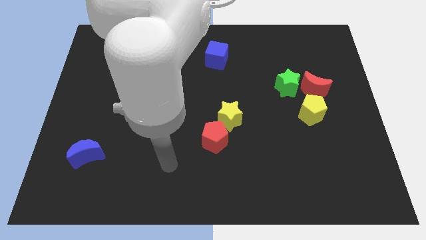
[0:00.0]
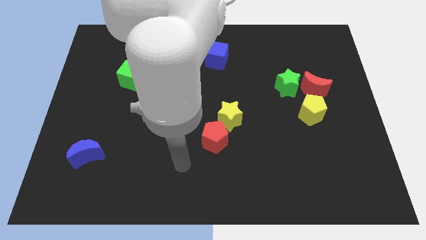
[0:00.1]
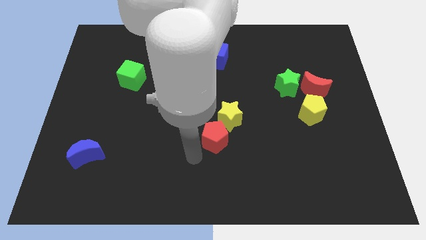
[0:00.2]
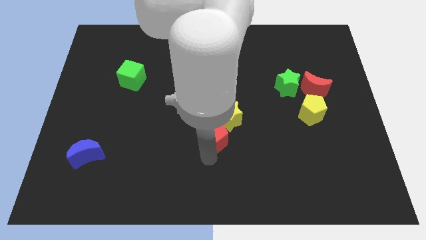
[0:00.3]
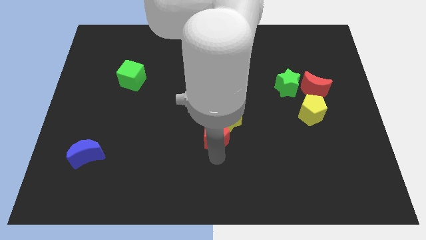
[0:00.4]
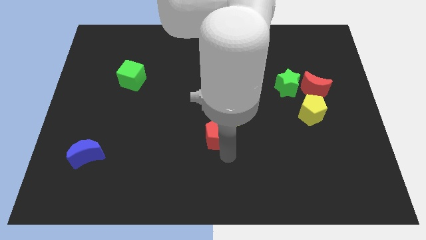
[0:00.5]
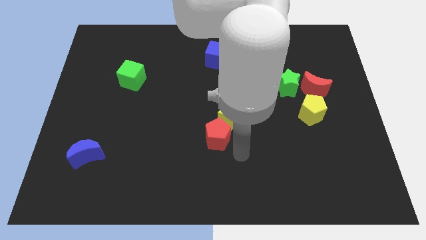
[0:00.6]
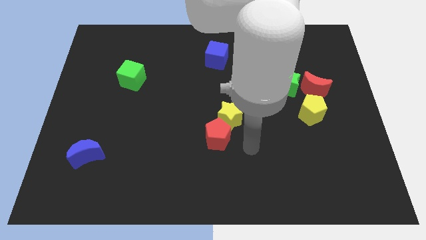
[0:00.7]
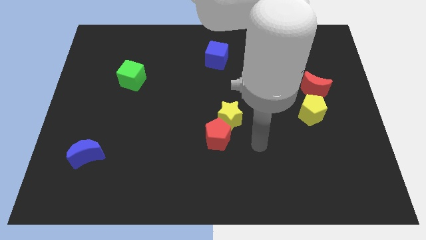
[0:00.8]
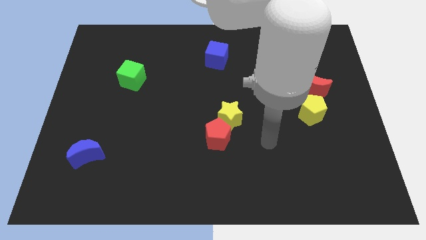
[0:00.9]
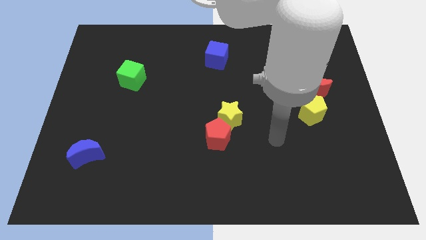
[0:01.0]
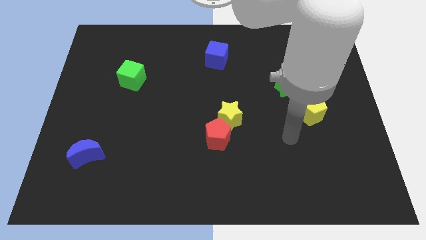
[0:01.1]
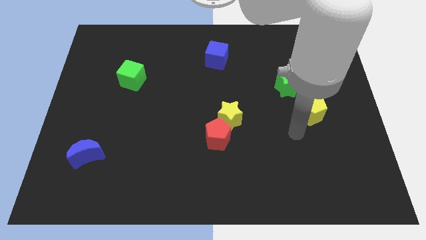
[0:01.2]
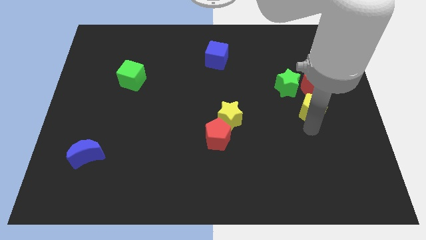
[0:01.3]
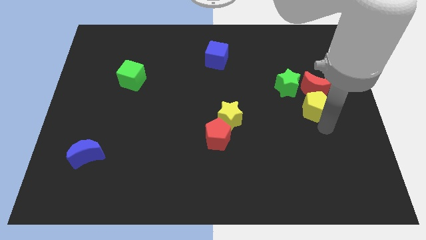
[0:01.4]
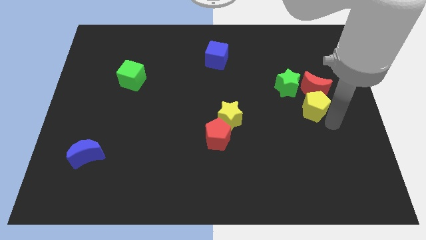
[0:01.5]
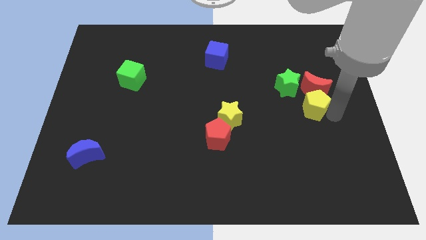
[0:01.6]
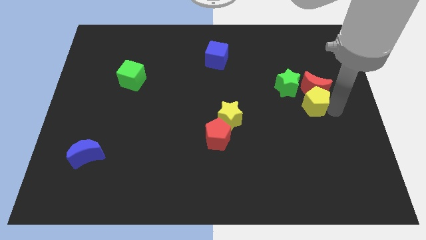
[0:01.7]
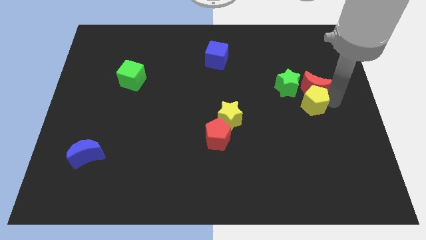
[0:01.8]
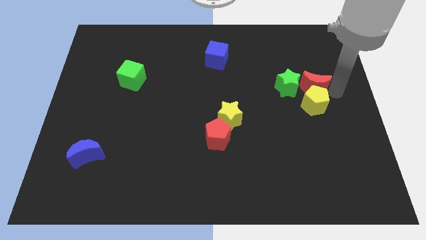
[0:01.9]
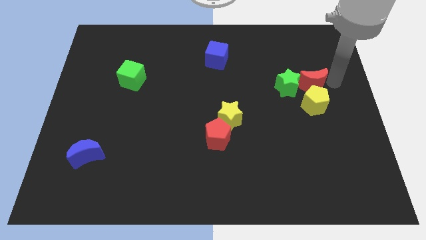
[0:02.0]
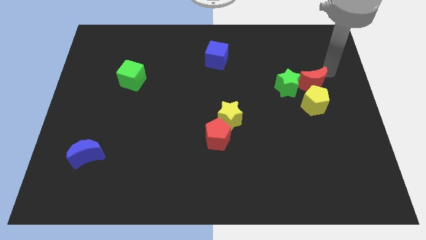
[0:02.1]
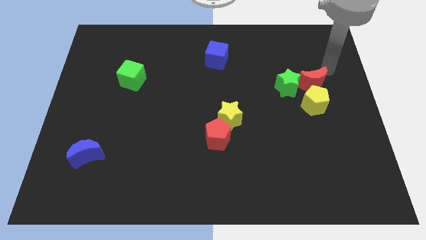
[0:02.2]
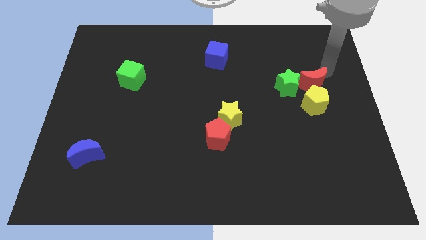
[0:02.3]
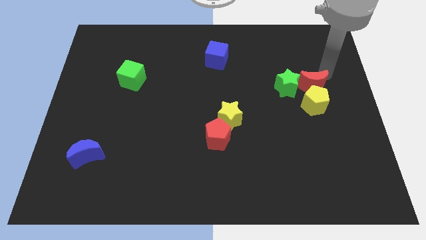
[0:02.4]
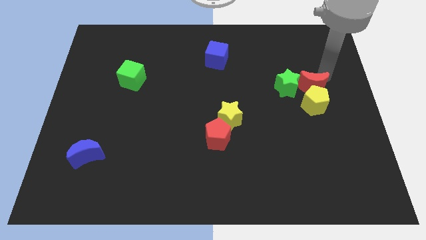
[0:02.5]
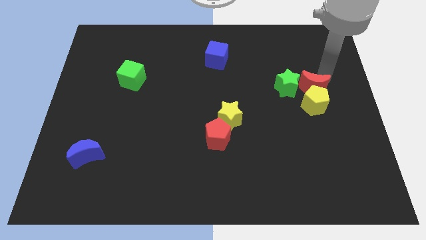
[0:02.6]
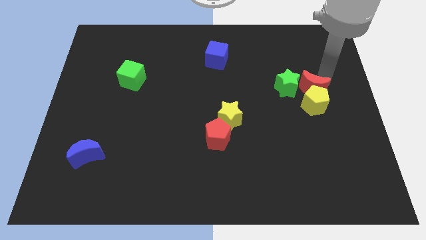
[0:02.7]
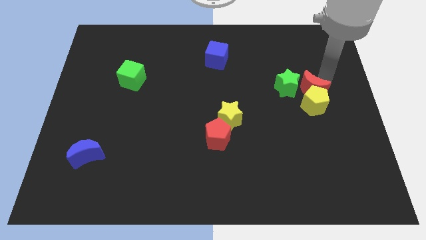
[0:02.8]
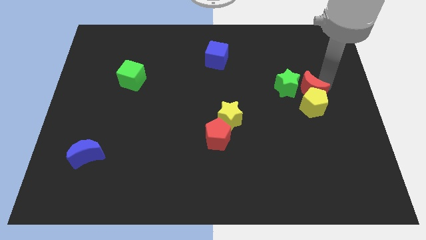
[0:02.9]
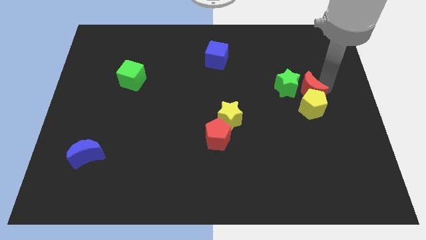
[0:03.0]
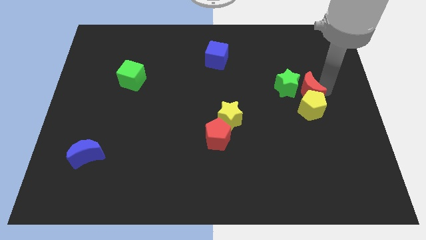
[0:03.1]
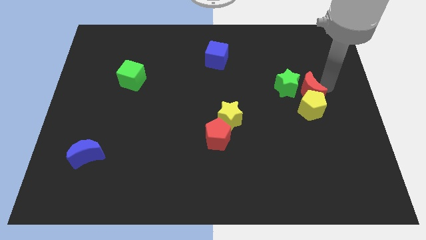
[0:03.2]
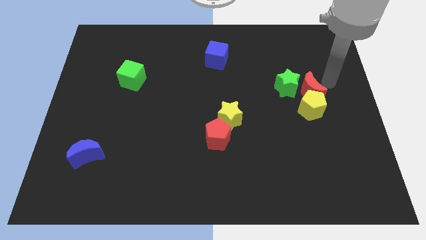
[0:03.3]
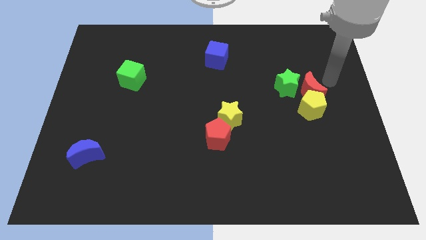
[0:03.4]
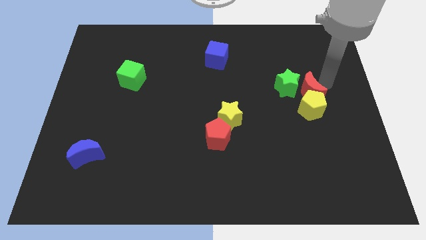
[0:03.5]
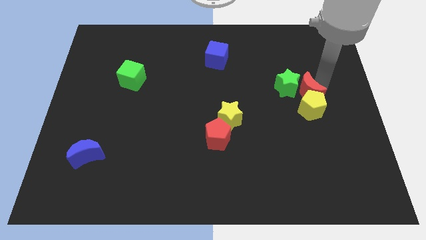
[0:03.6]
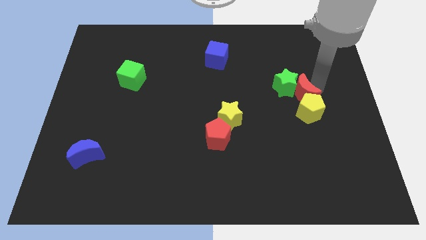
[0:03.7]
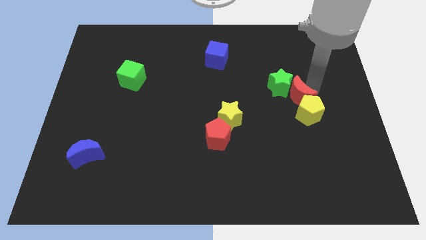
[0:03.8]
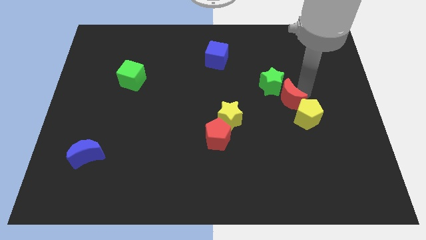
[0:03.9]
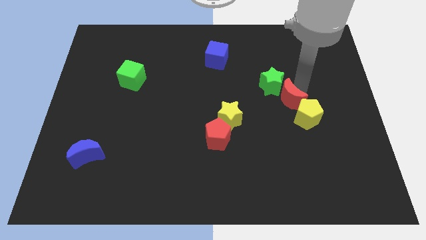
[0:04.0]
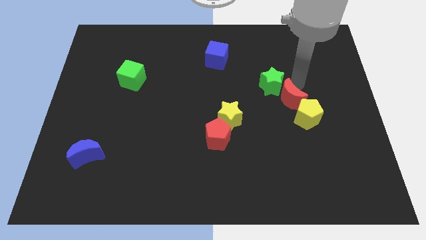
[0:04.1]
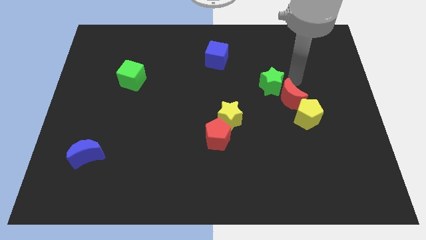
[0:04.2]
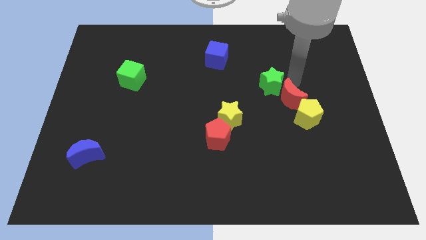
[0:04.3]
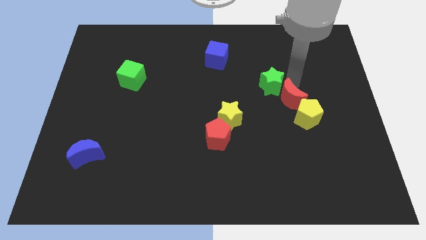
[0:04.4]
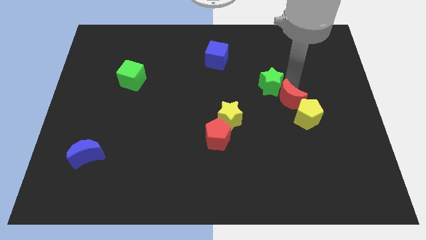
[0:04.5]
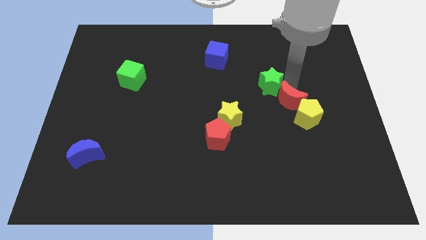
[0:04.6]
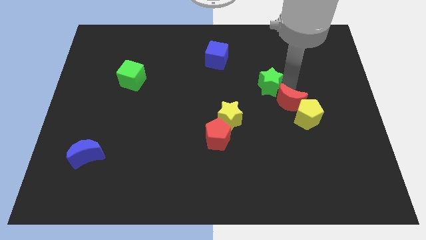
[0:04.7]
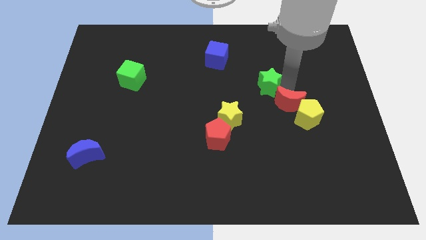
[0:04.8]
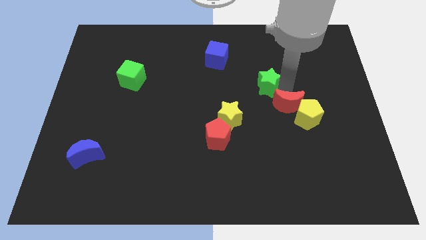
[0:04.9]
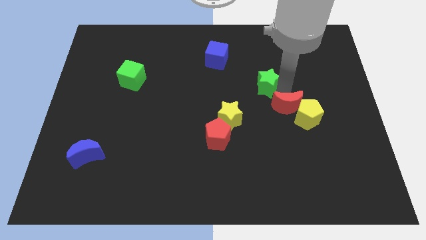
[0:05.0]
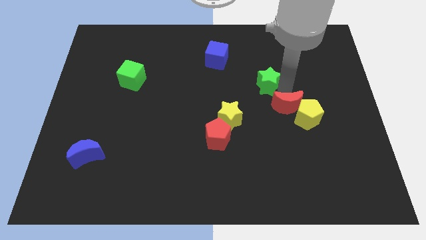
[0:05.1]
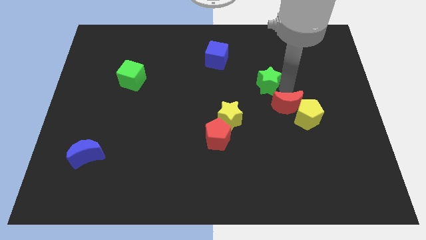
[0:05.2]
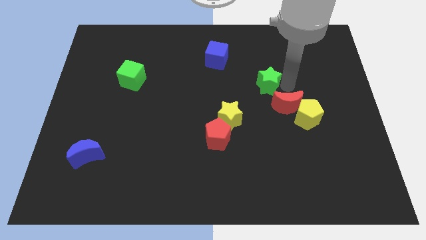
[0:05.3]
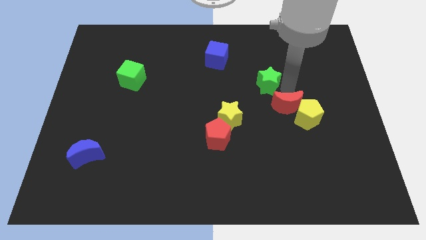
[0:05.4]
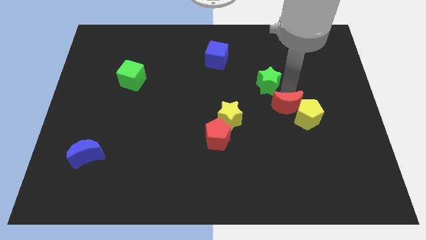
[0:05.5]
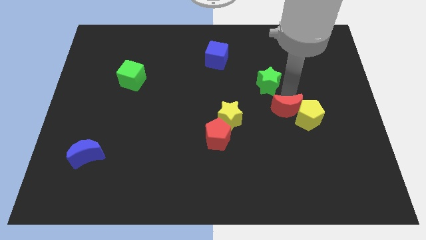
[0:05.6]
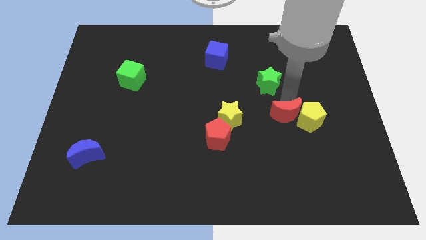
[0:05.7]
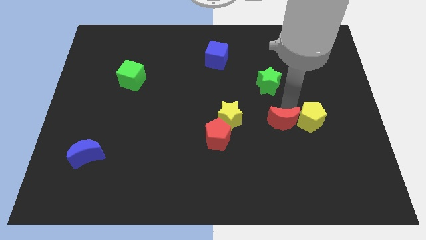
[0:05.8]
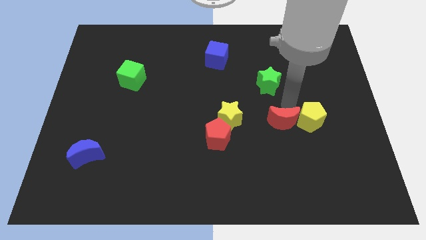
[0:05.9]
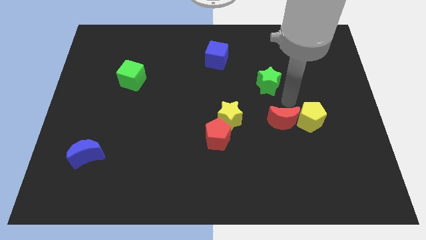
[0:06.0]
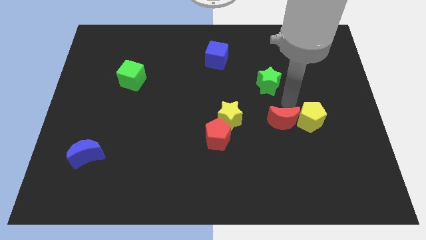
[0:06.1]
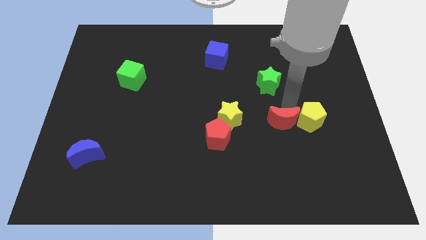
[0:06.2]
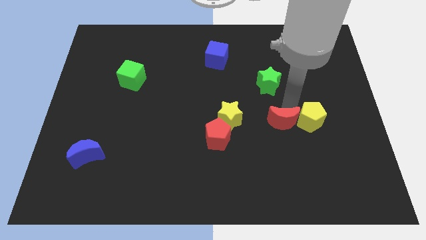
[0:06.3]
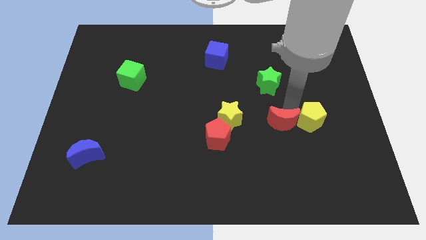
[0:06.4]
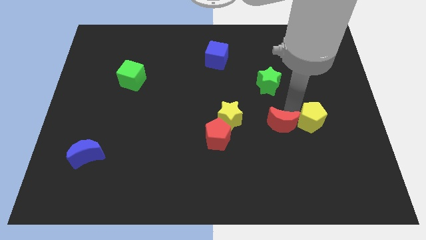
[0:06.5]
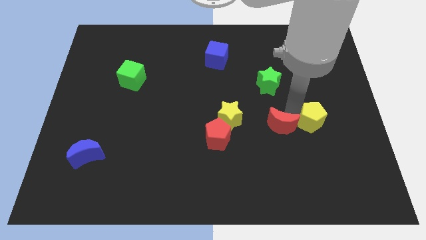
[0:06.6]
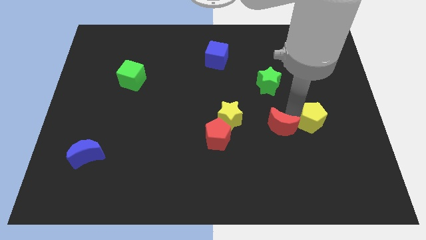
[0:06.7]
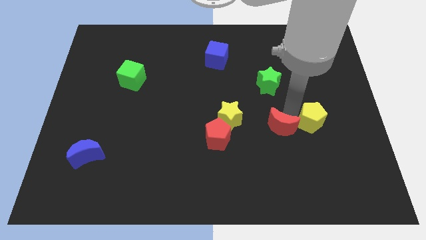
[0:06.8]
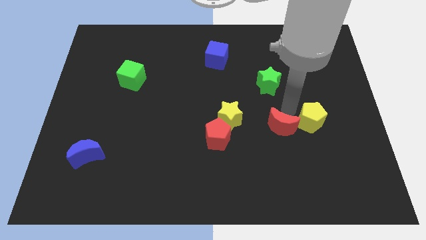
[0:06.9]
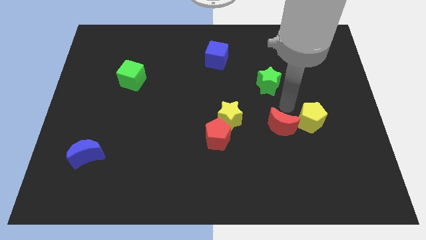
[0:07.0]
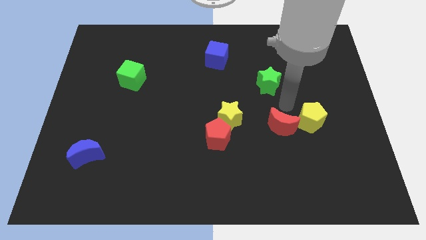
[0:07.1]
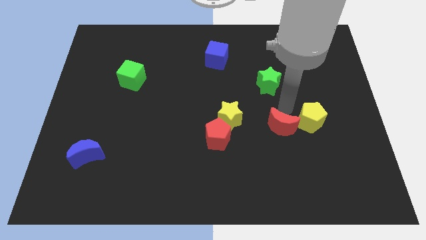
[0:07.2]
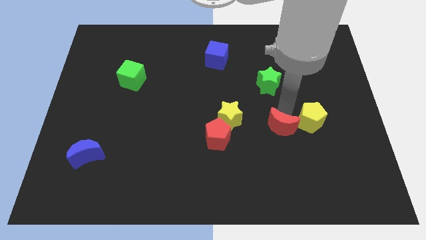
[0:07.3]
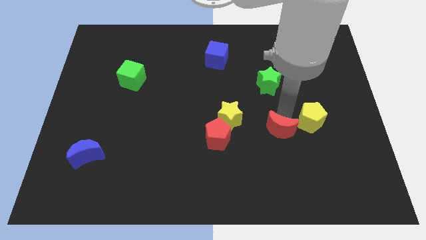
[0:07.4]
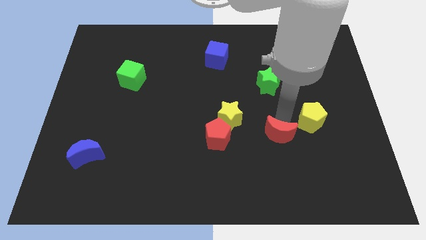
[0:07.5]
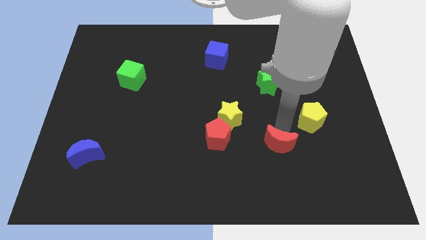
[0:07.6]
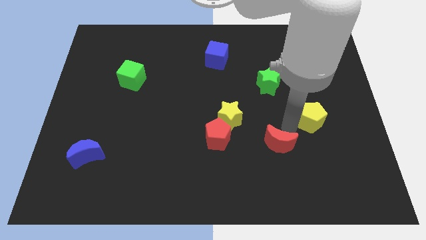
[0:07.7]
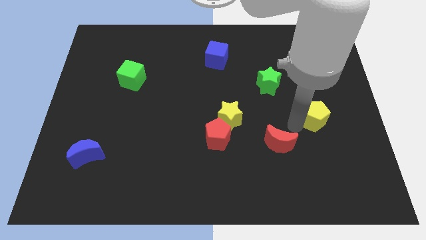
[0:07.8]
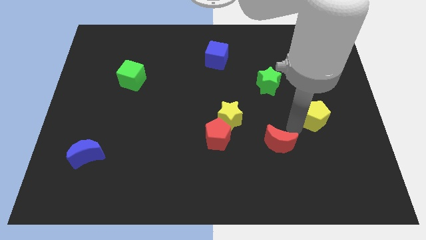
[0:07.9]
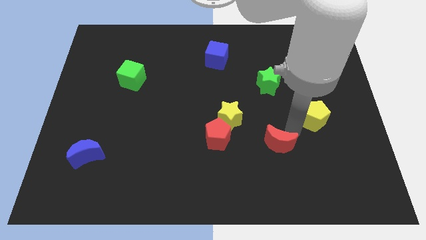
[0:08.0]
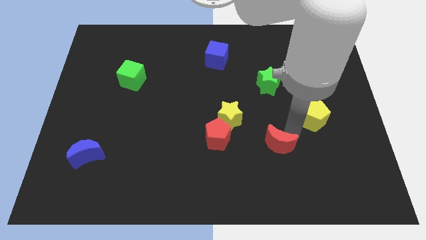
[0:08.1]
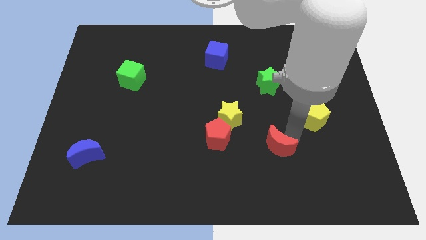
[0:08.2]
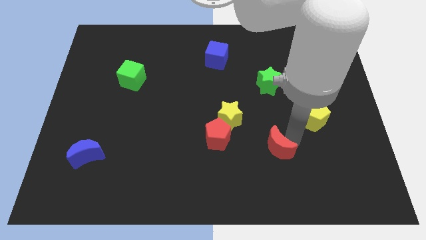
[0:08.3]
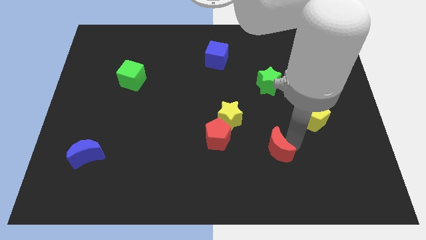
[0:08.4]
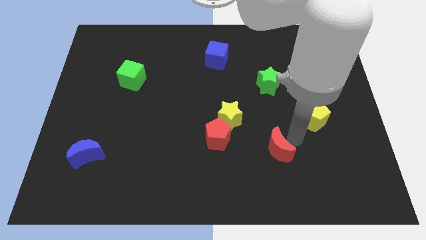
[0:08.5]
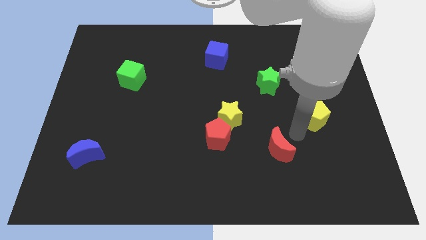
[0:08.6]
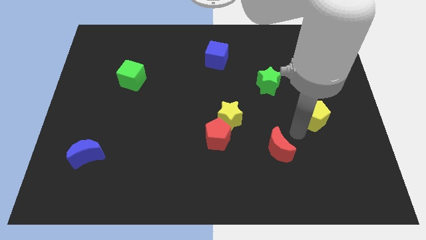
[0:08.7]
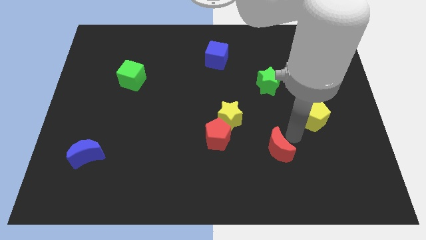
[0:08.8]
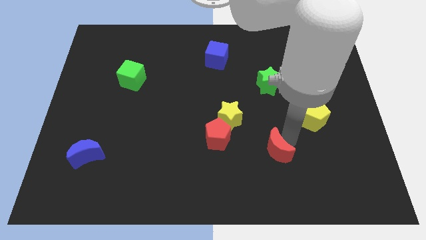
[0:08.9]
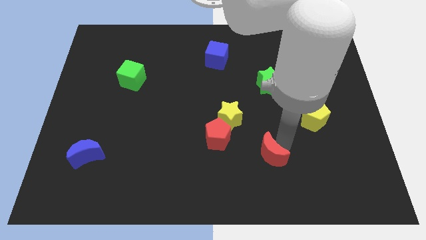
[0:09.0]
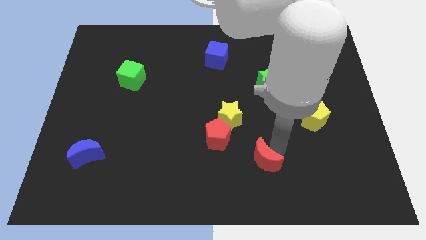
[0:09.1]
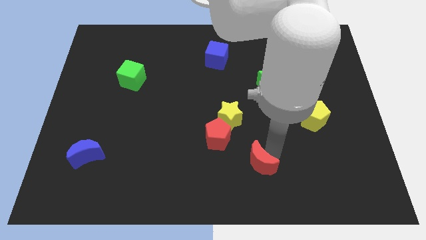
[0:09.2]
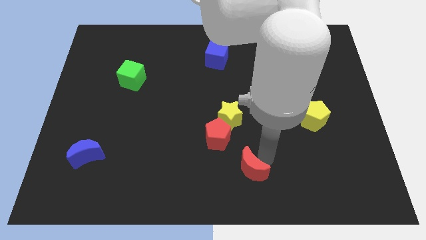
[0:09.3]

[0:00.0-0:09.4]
put the red moon to the bottom side
